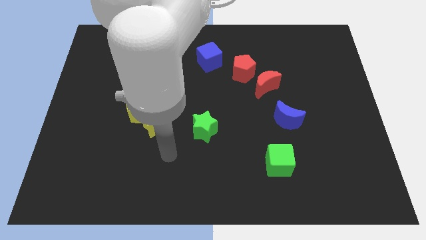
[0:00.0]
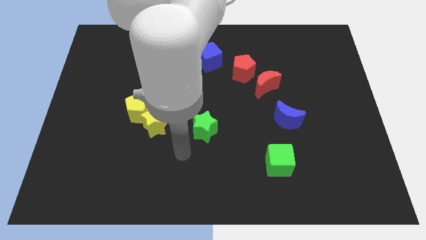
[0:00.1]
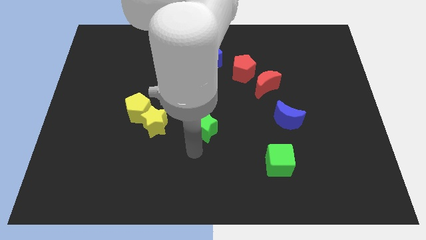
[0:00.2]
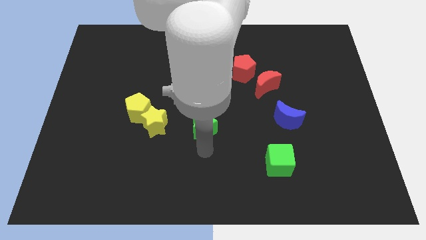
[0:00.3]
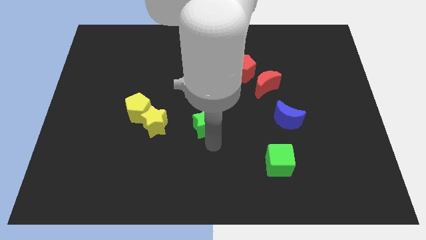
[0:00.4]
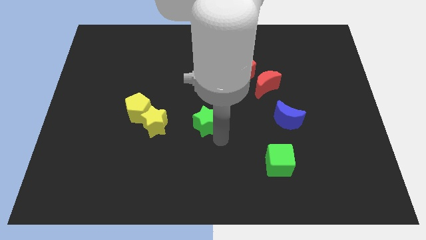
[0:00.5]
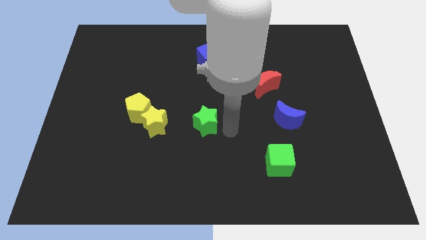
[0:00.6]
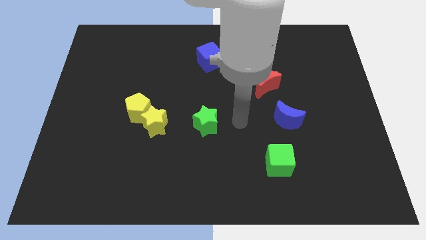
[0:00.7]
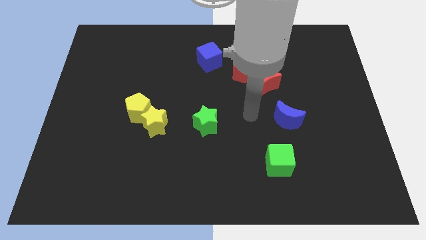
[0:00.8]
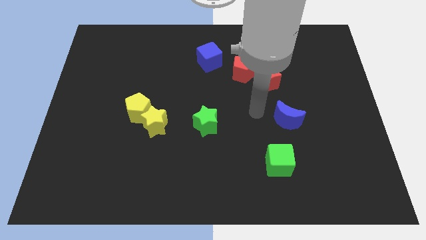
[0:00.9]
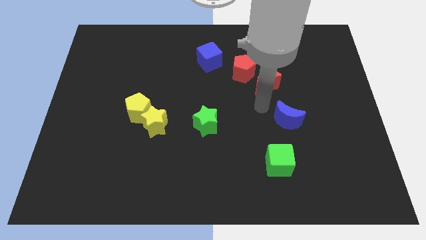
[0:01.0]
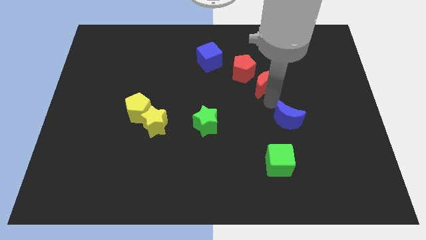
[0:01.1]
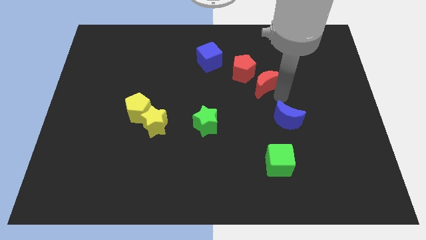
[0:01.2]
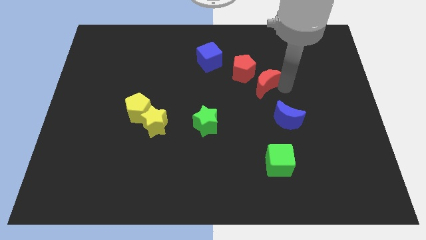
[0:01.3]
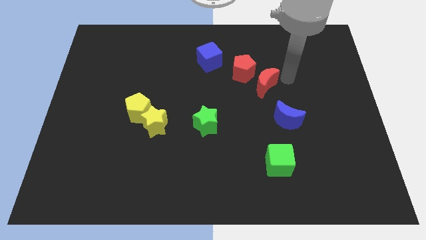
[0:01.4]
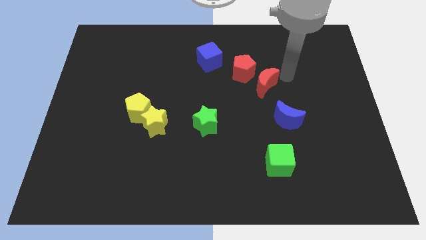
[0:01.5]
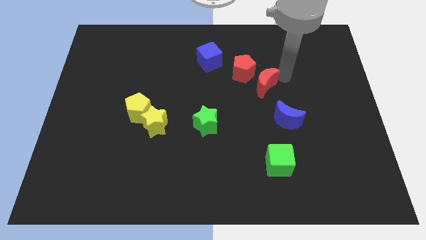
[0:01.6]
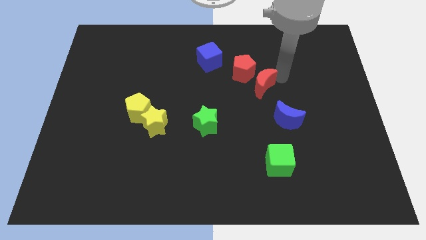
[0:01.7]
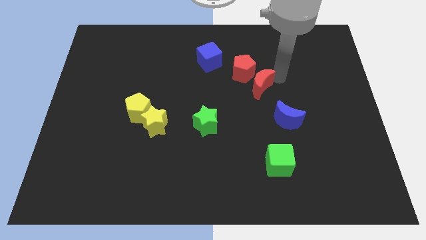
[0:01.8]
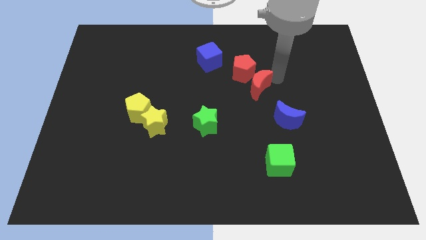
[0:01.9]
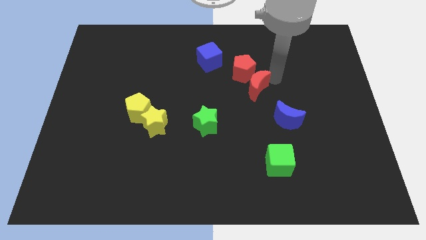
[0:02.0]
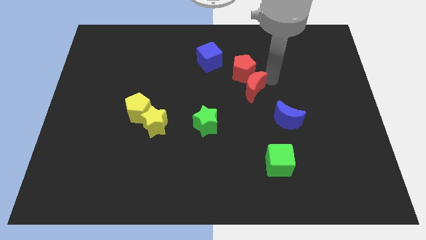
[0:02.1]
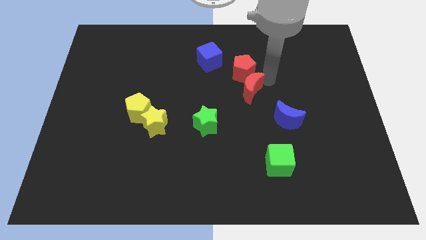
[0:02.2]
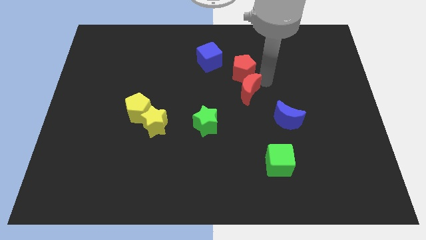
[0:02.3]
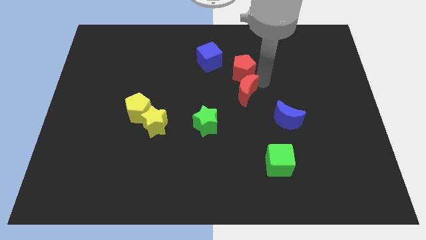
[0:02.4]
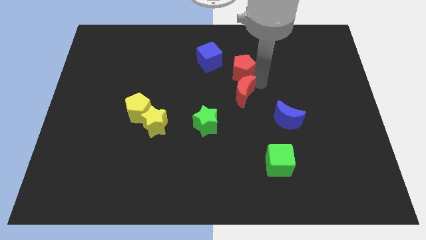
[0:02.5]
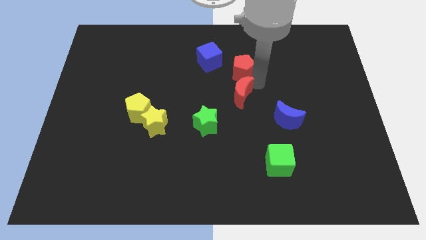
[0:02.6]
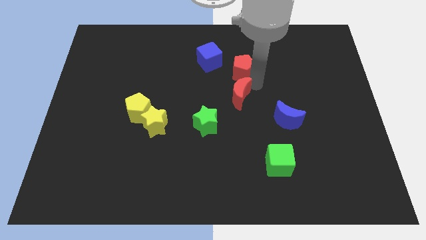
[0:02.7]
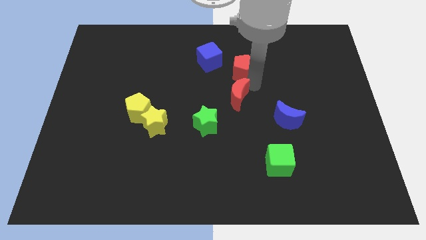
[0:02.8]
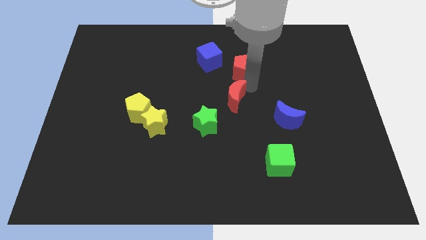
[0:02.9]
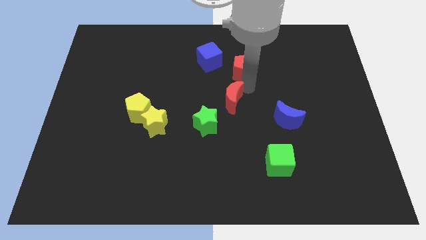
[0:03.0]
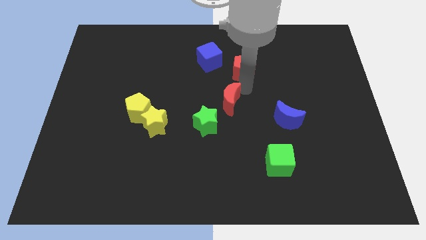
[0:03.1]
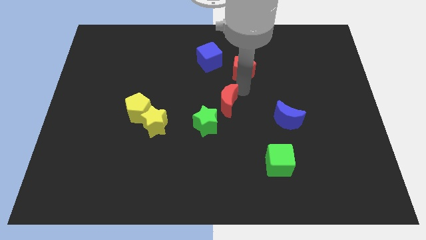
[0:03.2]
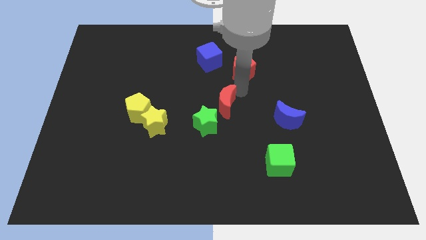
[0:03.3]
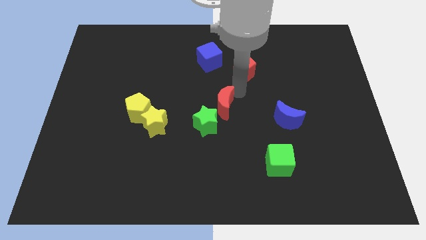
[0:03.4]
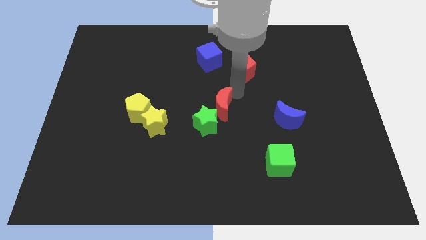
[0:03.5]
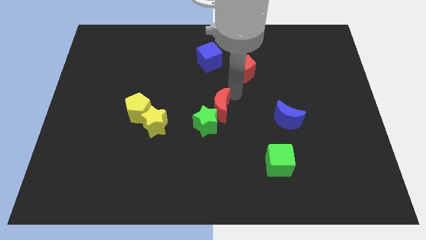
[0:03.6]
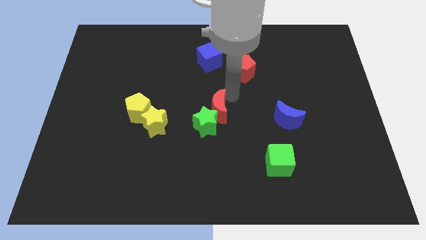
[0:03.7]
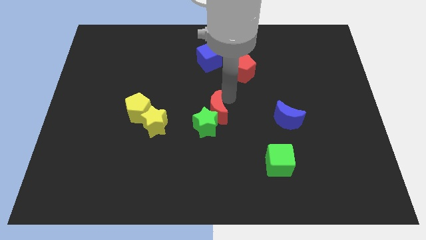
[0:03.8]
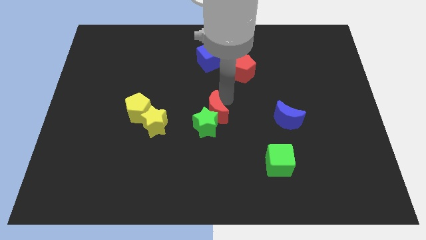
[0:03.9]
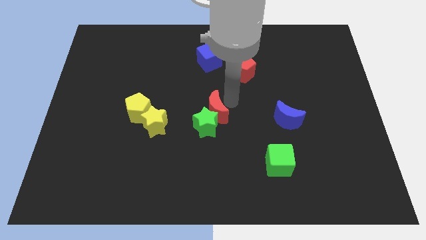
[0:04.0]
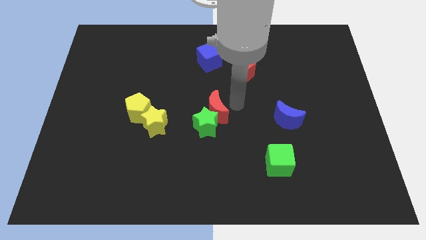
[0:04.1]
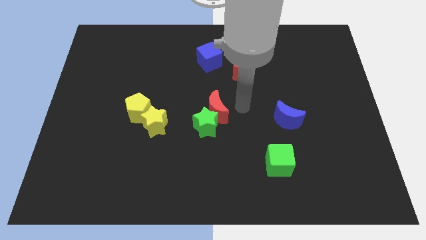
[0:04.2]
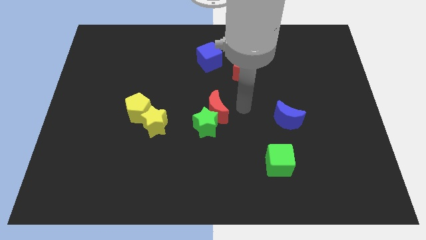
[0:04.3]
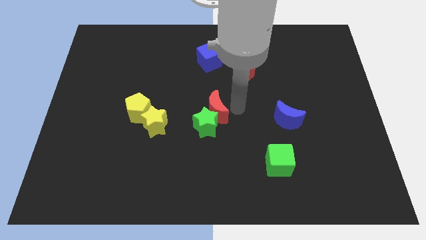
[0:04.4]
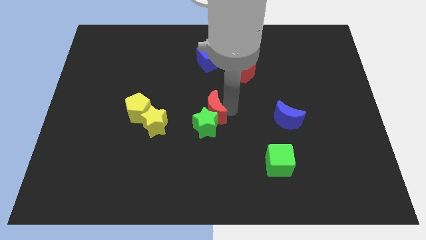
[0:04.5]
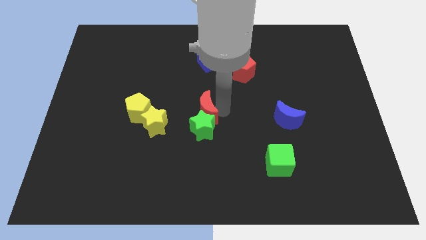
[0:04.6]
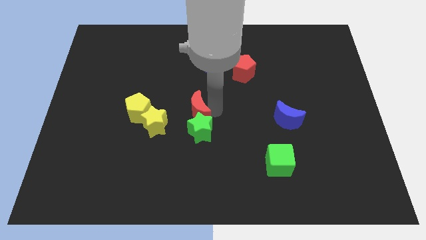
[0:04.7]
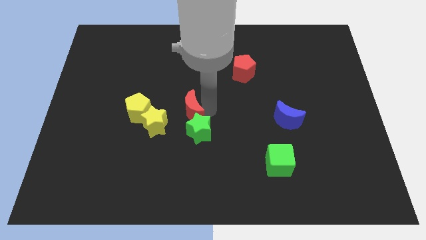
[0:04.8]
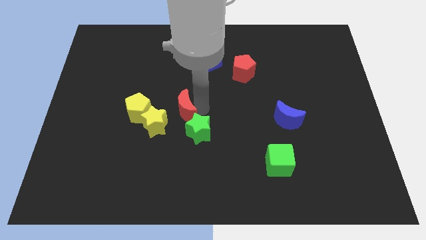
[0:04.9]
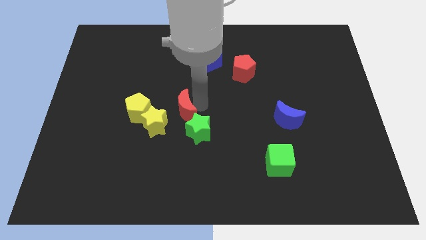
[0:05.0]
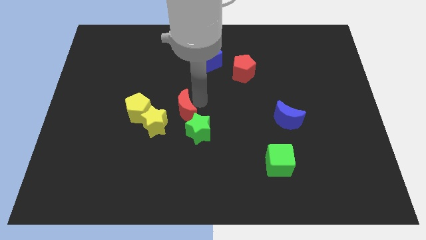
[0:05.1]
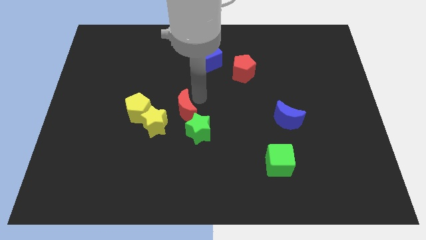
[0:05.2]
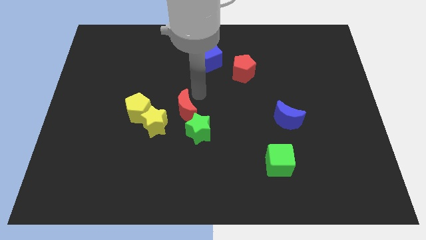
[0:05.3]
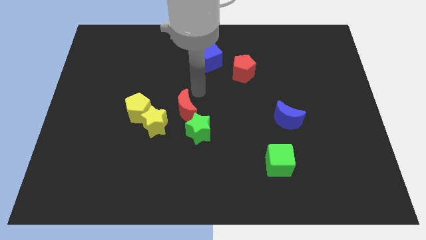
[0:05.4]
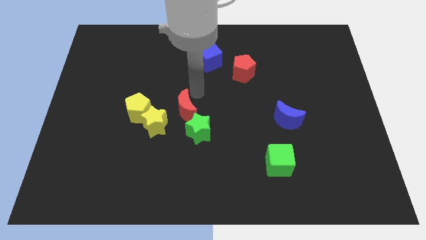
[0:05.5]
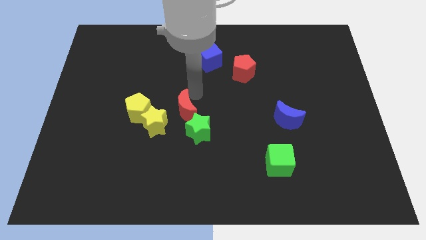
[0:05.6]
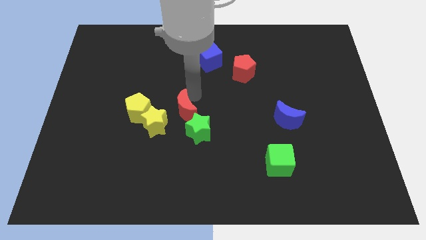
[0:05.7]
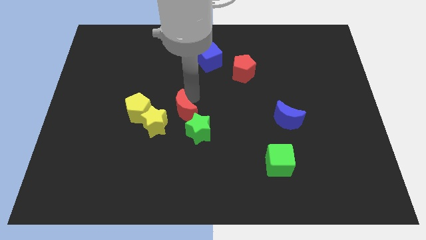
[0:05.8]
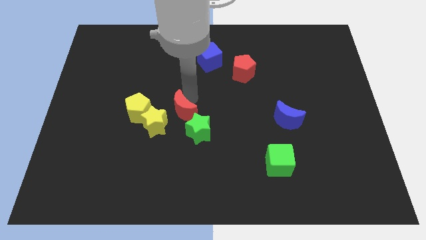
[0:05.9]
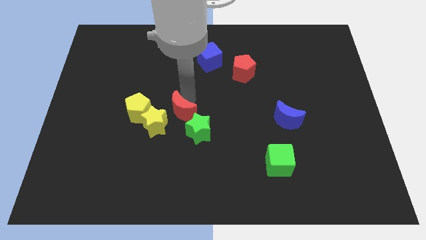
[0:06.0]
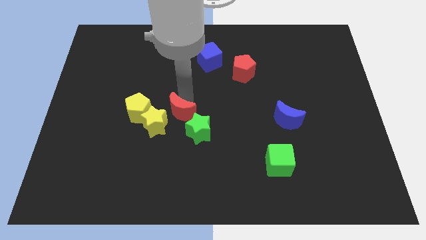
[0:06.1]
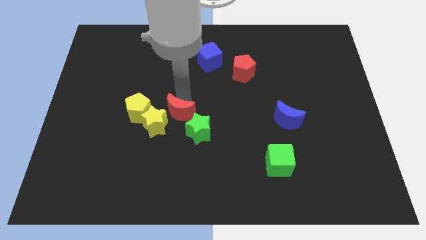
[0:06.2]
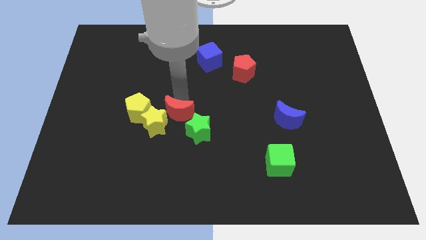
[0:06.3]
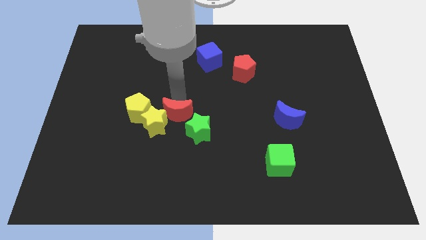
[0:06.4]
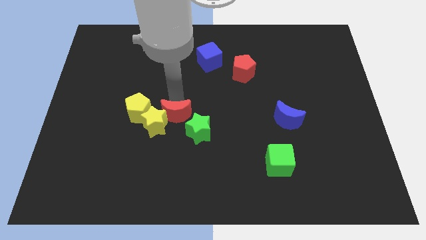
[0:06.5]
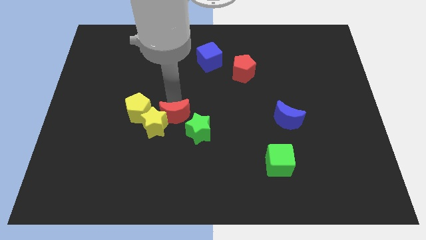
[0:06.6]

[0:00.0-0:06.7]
push the red moon to the bottom right of the yellow pentagon
